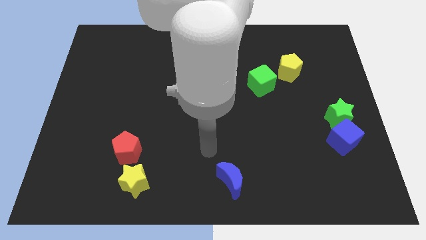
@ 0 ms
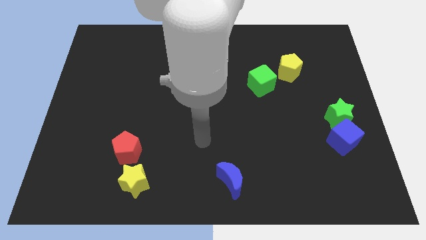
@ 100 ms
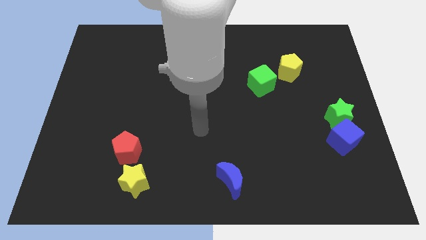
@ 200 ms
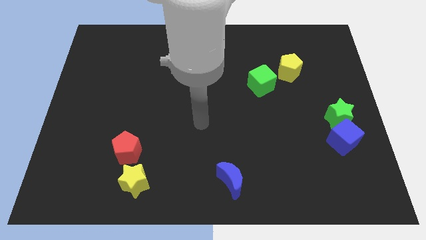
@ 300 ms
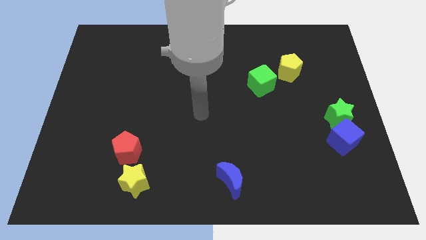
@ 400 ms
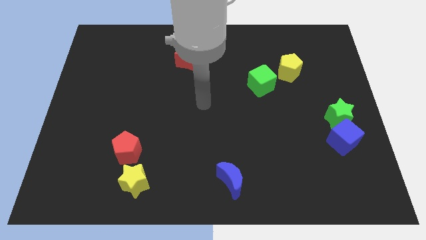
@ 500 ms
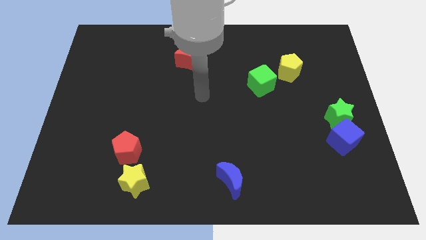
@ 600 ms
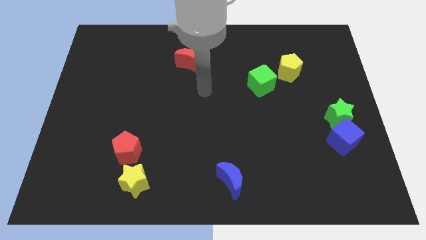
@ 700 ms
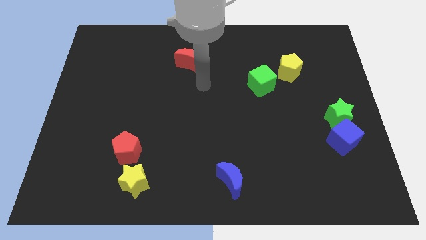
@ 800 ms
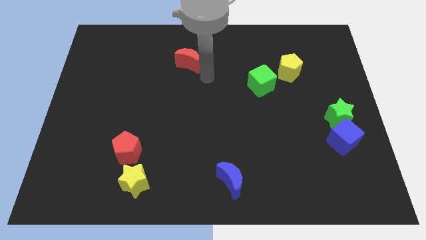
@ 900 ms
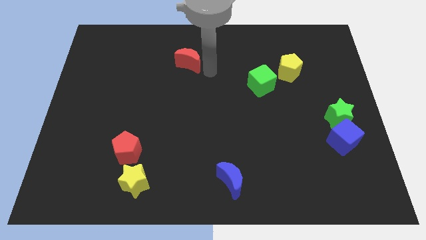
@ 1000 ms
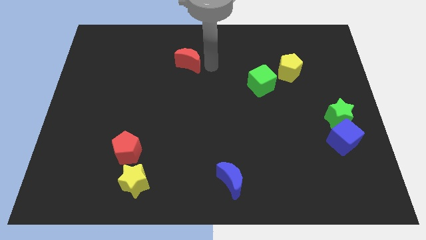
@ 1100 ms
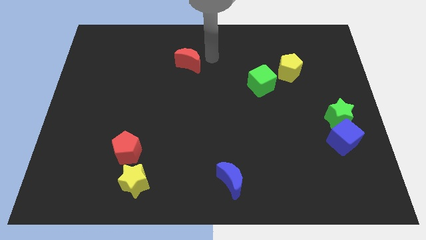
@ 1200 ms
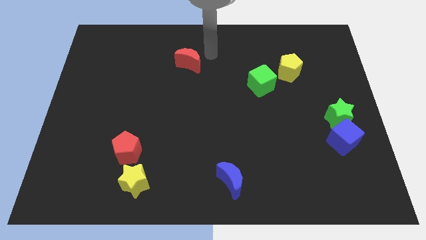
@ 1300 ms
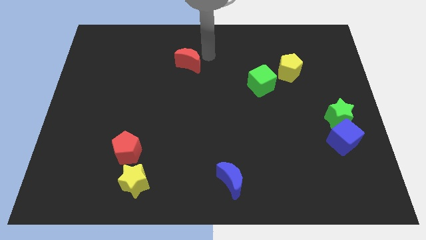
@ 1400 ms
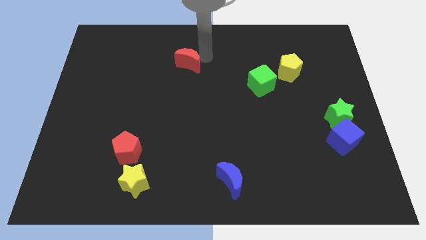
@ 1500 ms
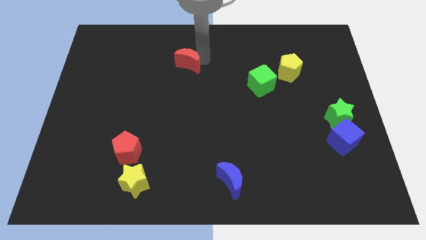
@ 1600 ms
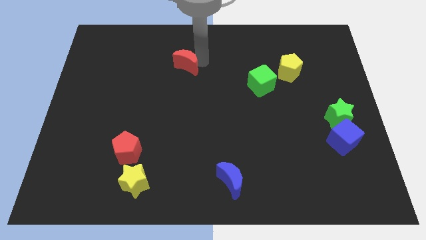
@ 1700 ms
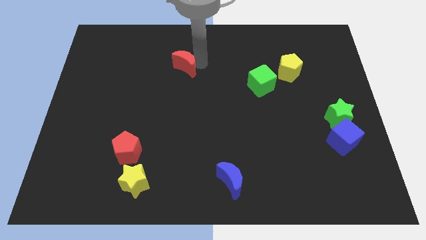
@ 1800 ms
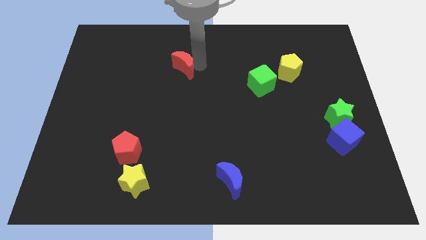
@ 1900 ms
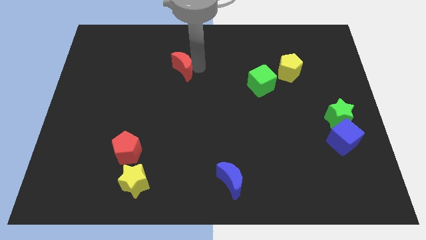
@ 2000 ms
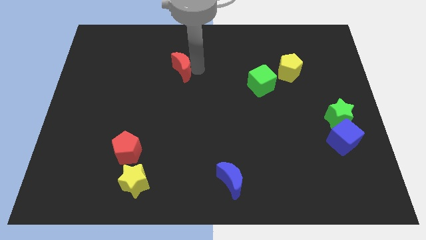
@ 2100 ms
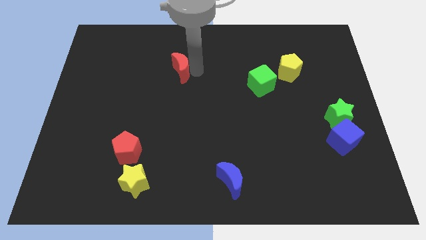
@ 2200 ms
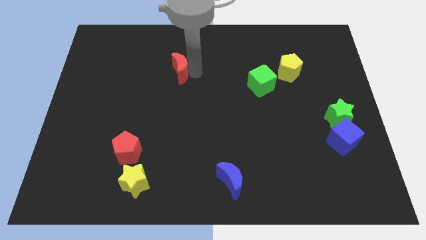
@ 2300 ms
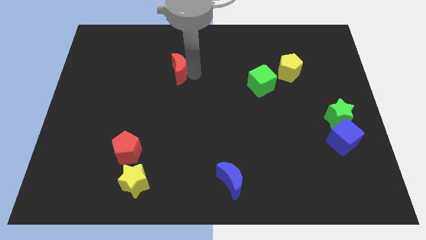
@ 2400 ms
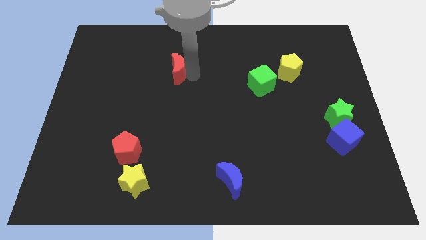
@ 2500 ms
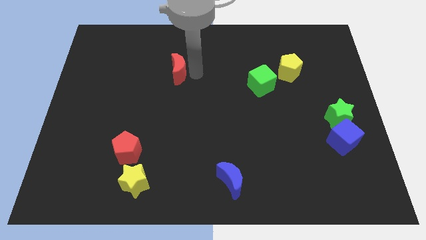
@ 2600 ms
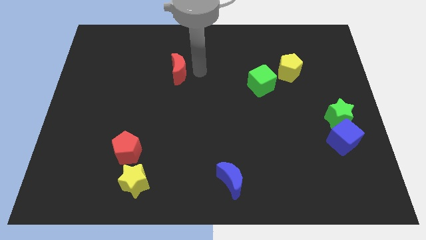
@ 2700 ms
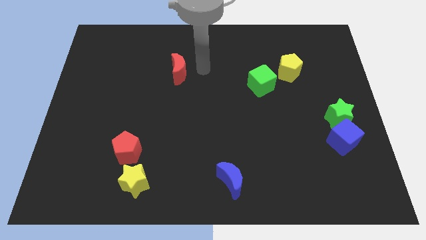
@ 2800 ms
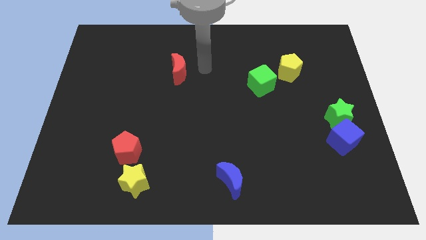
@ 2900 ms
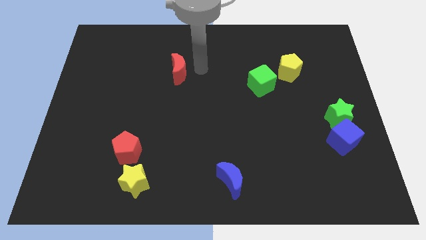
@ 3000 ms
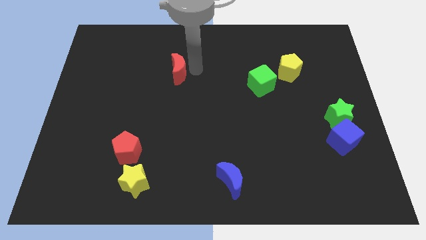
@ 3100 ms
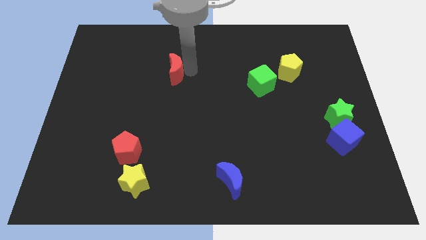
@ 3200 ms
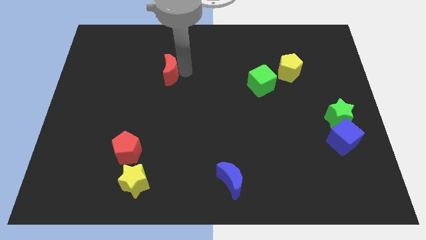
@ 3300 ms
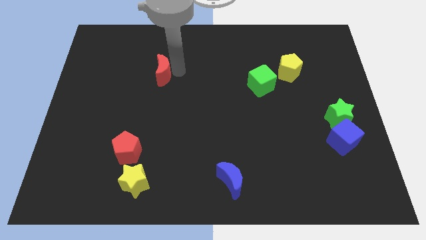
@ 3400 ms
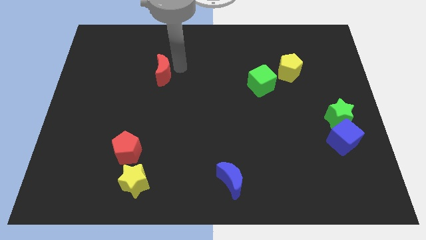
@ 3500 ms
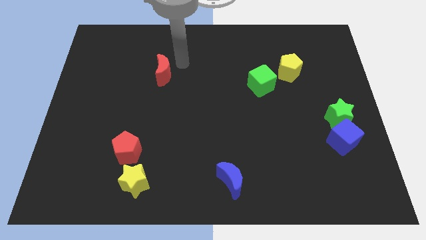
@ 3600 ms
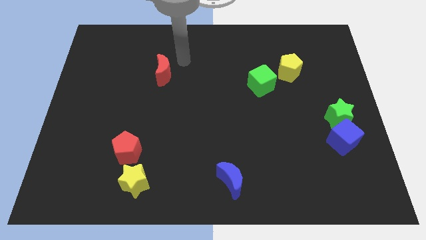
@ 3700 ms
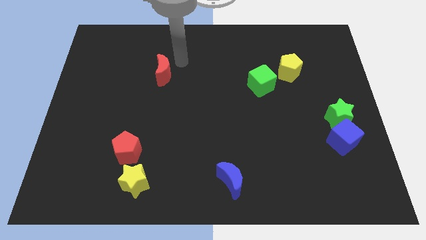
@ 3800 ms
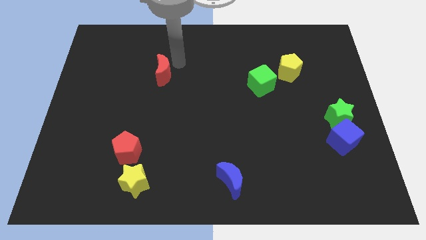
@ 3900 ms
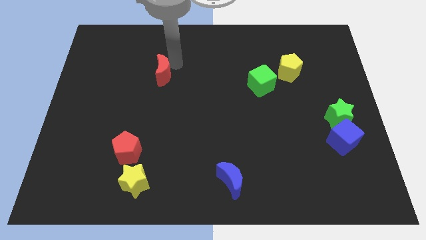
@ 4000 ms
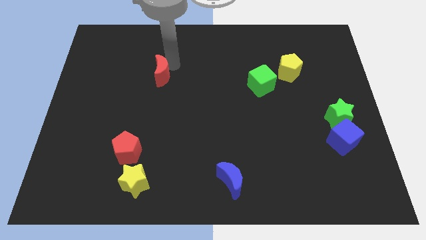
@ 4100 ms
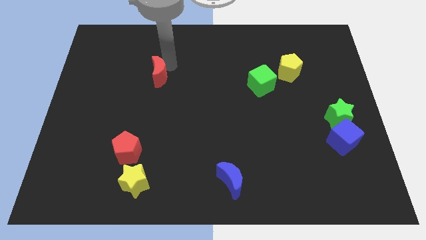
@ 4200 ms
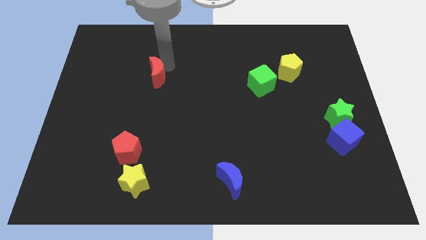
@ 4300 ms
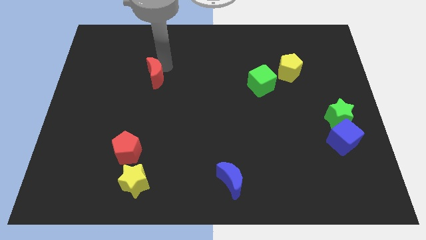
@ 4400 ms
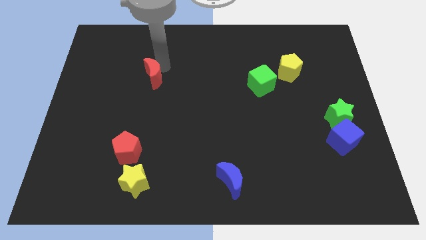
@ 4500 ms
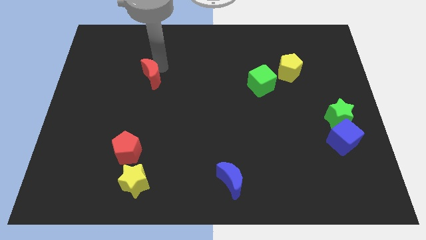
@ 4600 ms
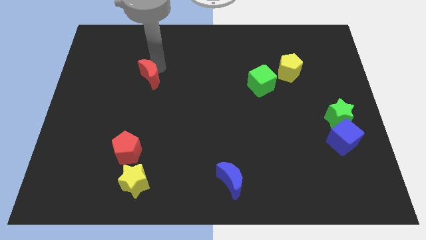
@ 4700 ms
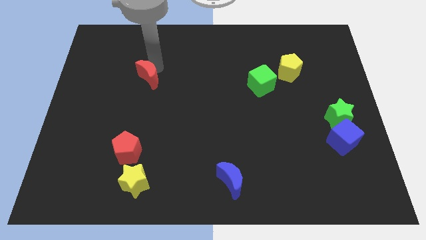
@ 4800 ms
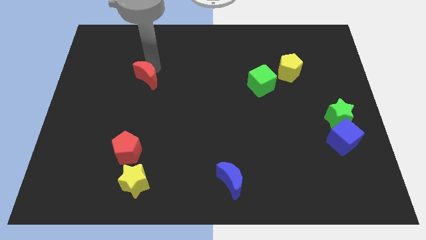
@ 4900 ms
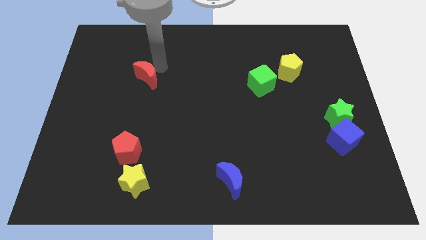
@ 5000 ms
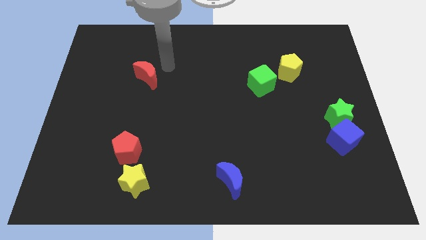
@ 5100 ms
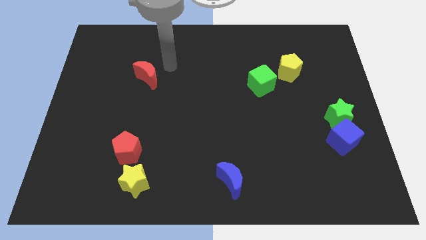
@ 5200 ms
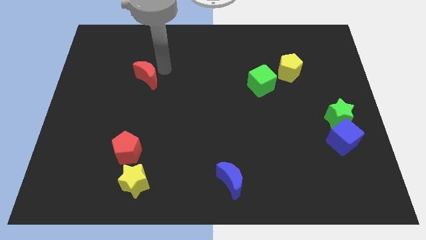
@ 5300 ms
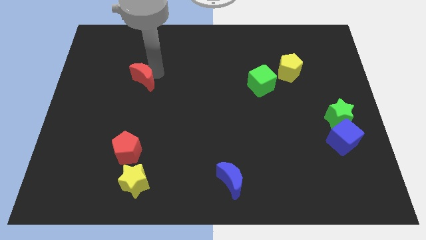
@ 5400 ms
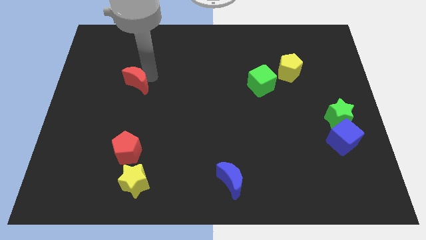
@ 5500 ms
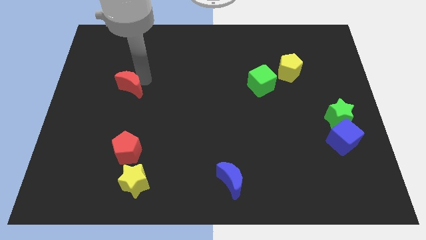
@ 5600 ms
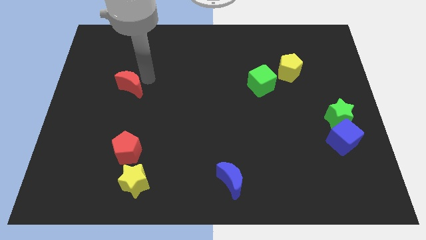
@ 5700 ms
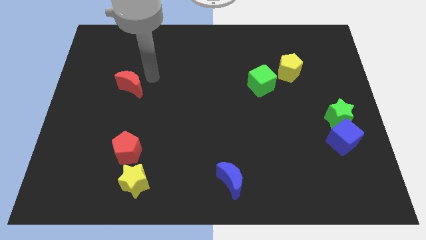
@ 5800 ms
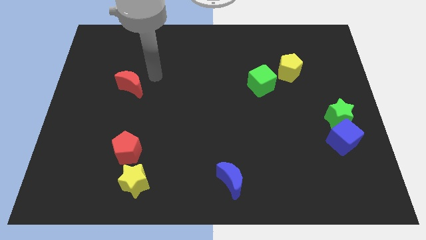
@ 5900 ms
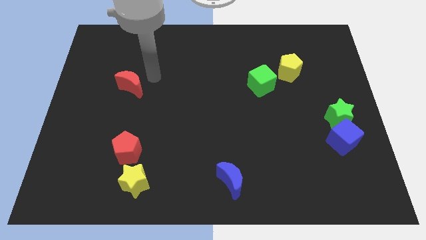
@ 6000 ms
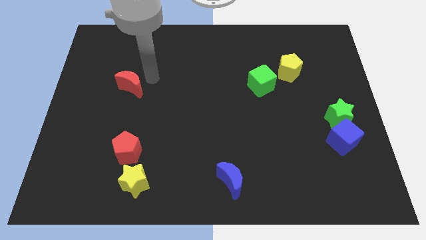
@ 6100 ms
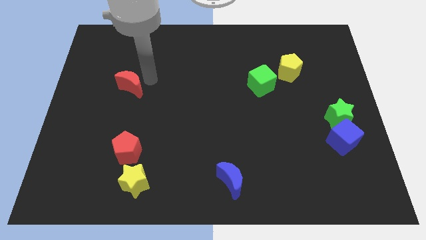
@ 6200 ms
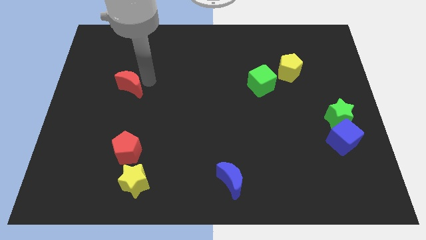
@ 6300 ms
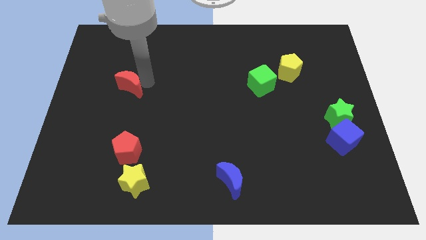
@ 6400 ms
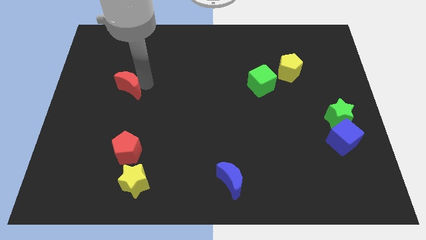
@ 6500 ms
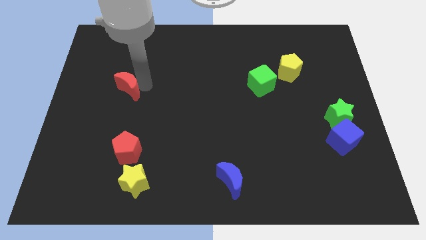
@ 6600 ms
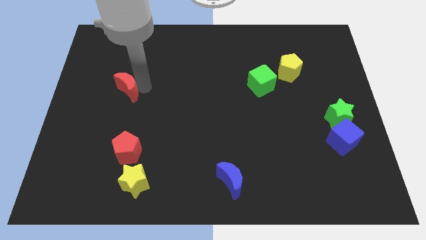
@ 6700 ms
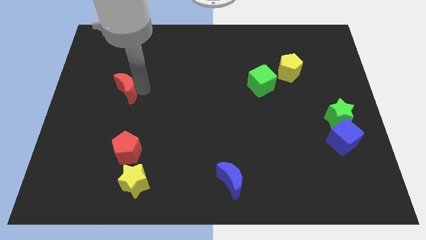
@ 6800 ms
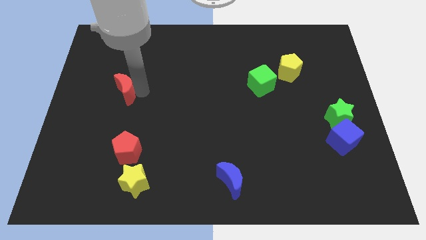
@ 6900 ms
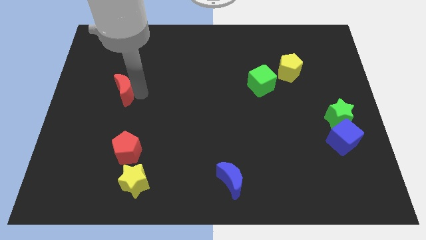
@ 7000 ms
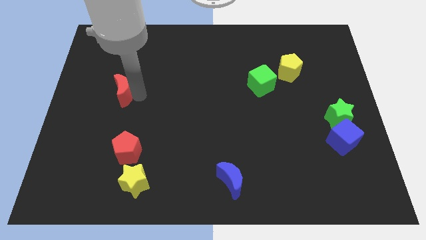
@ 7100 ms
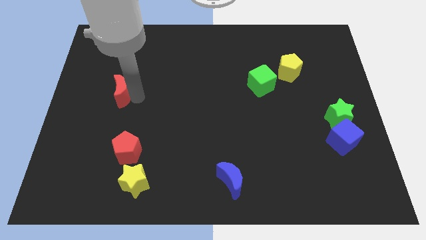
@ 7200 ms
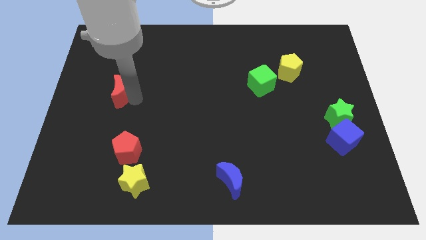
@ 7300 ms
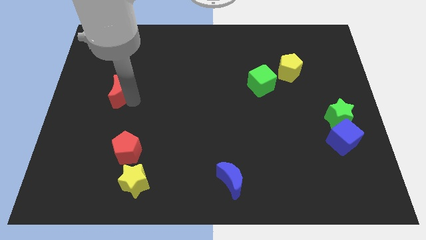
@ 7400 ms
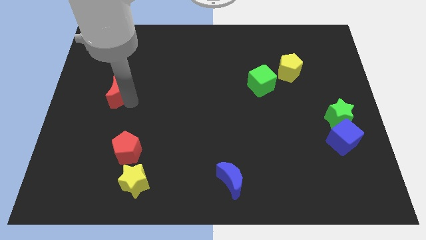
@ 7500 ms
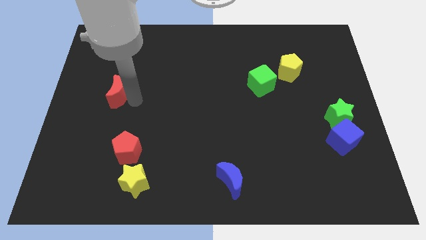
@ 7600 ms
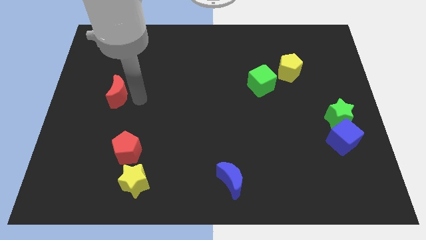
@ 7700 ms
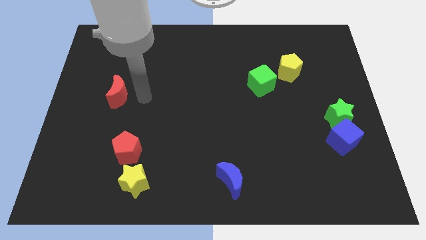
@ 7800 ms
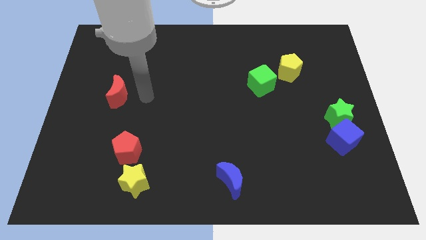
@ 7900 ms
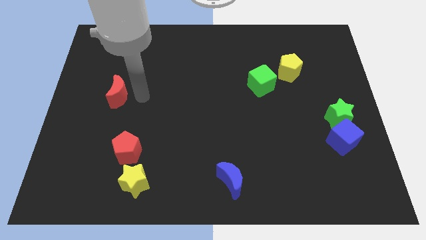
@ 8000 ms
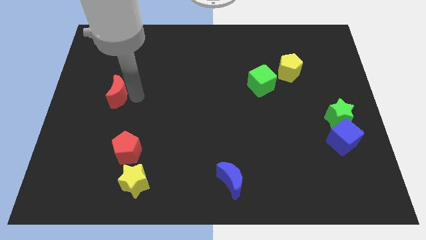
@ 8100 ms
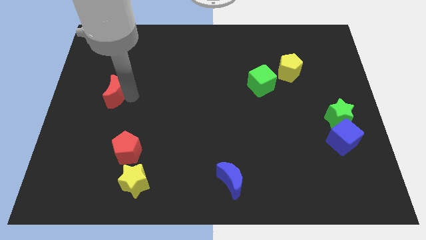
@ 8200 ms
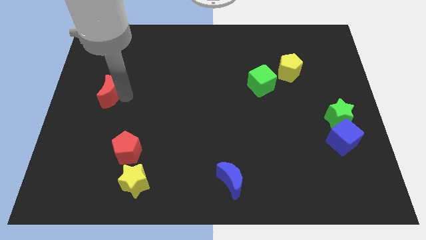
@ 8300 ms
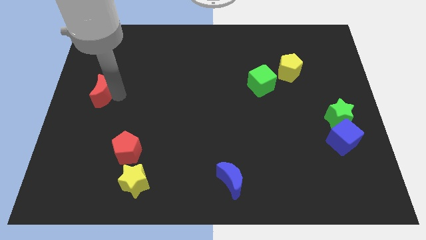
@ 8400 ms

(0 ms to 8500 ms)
move the red moon to the left side of the board
